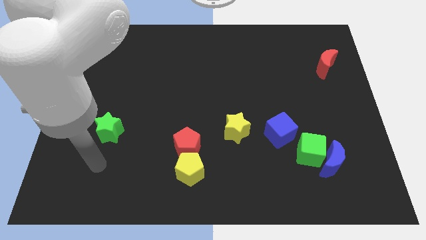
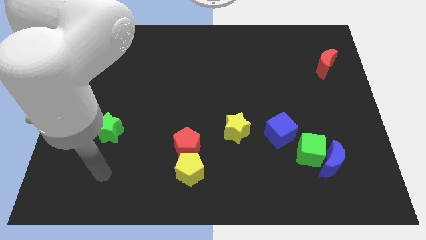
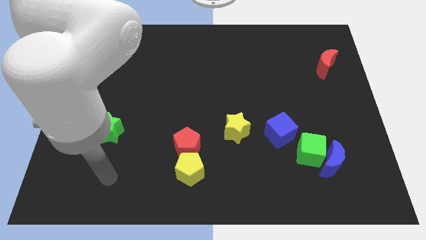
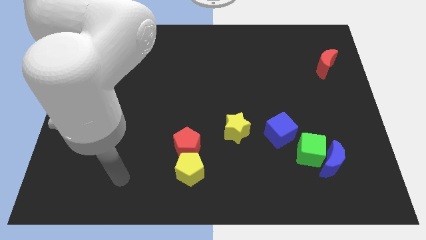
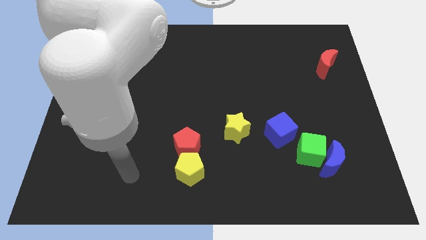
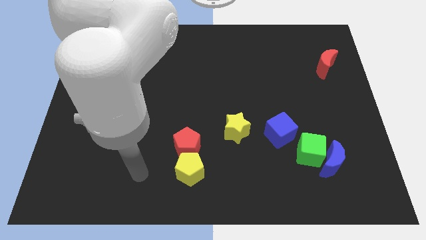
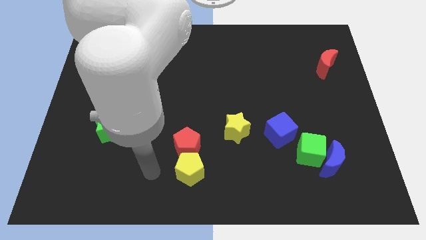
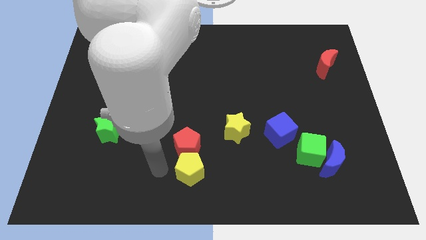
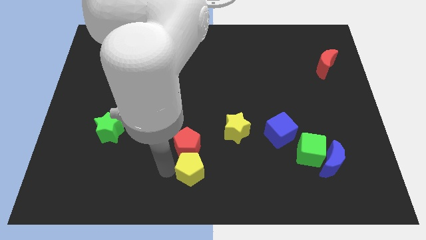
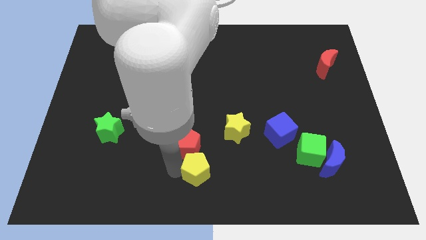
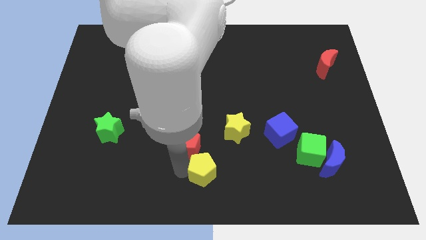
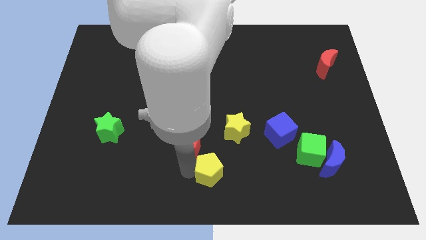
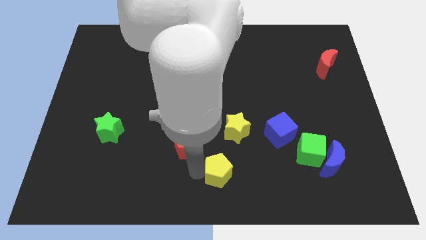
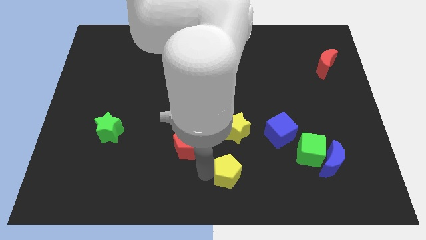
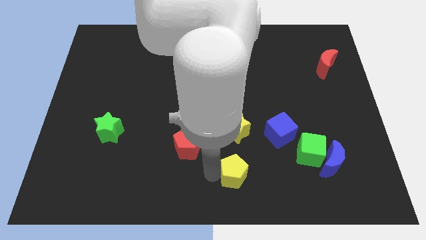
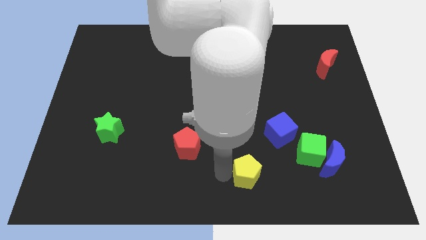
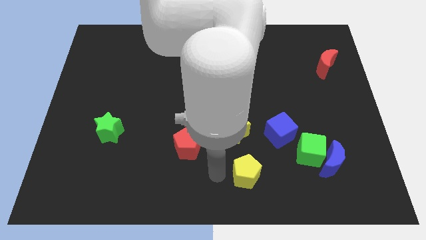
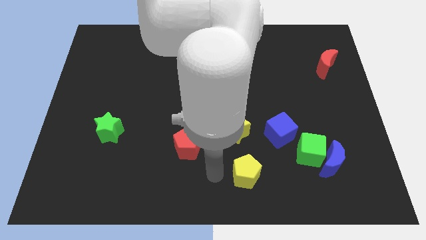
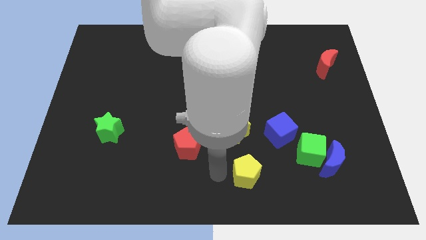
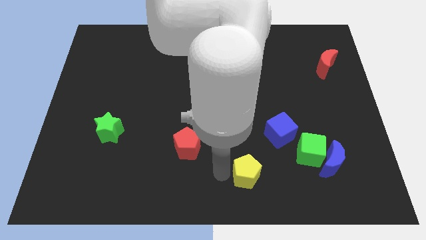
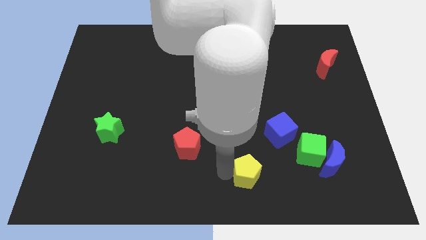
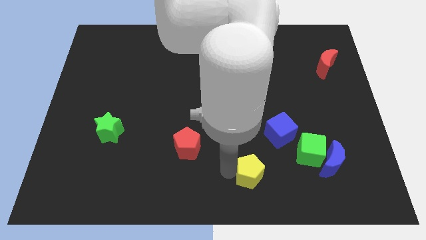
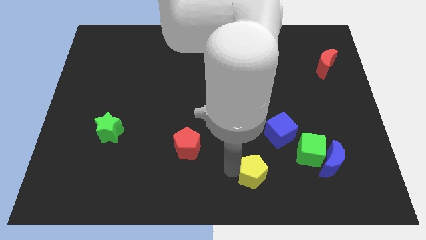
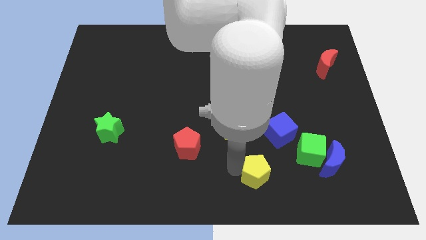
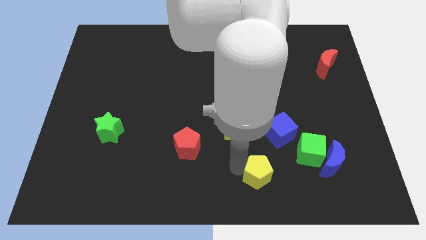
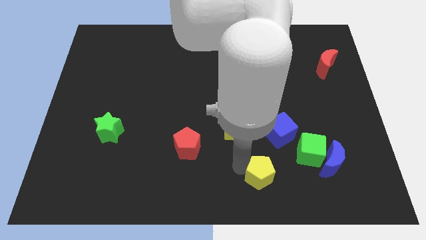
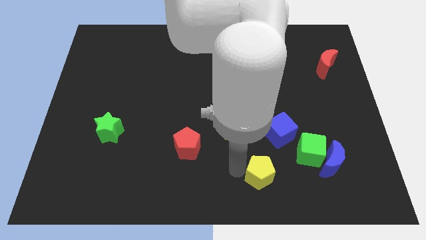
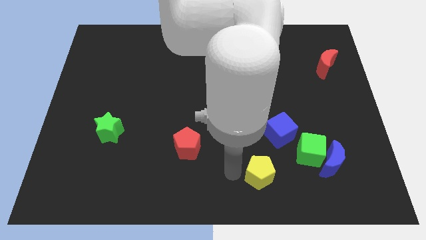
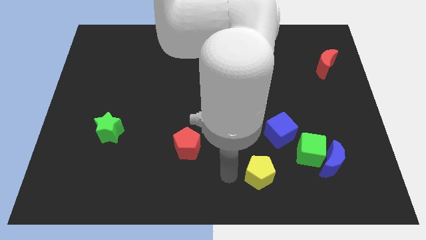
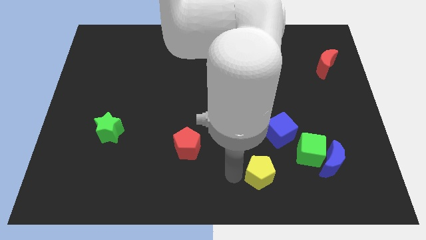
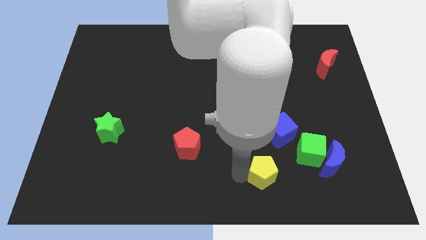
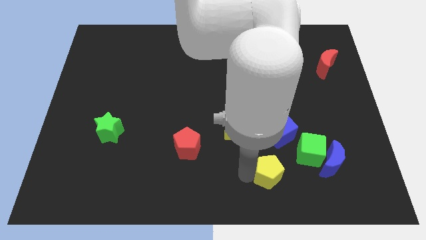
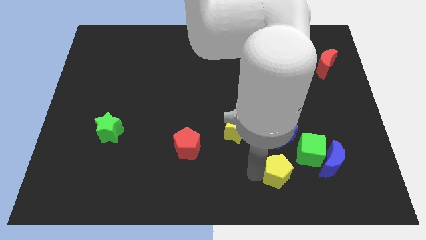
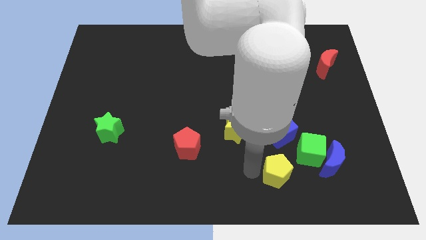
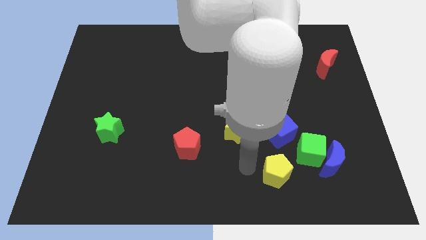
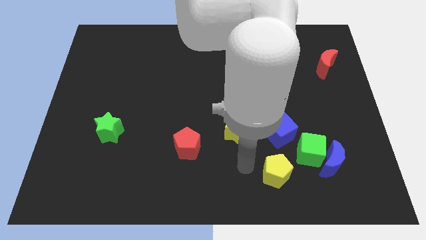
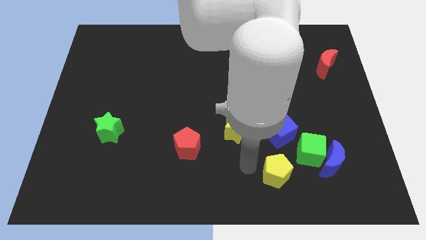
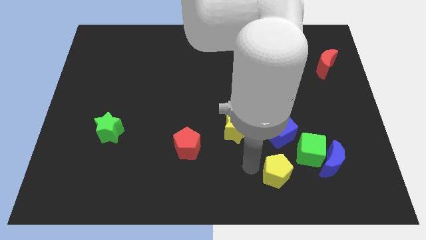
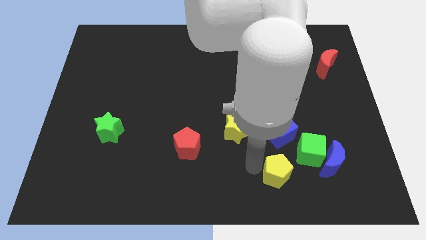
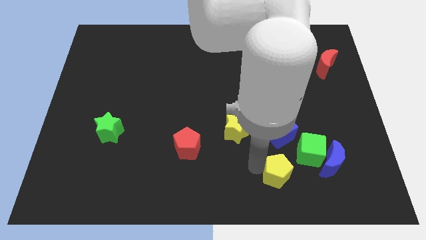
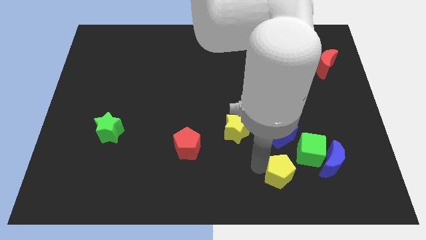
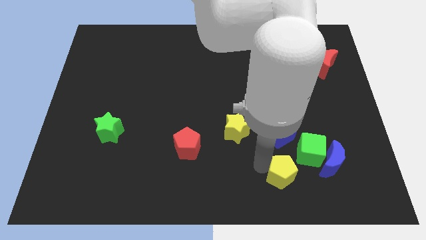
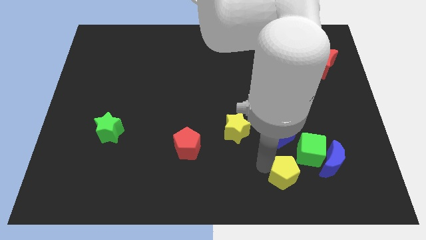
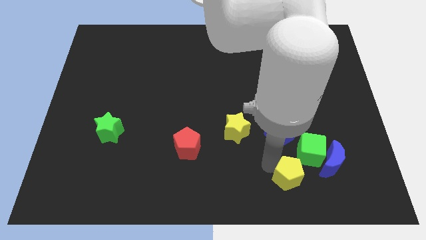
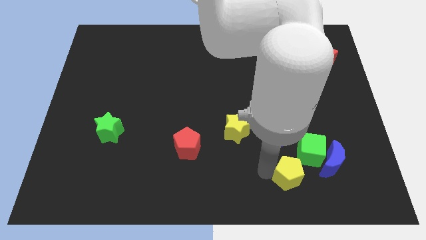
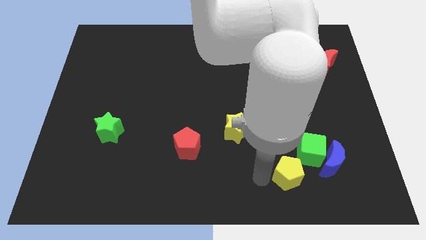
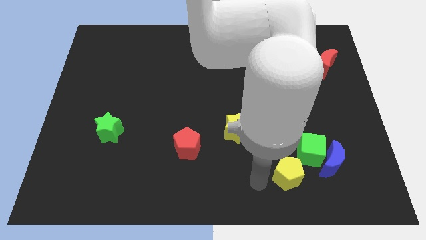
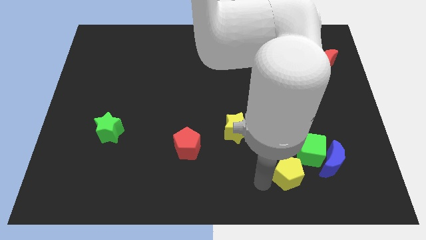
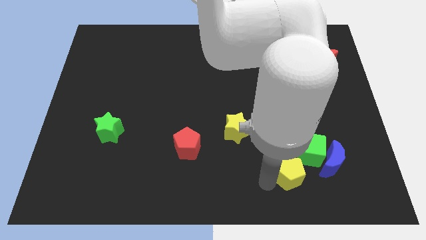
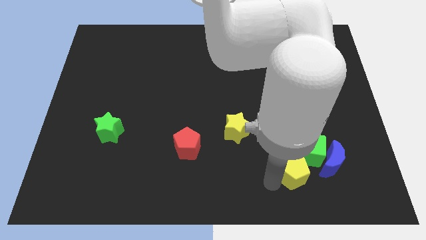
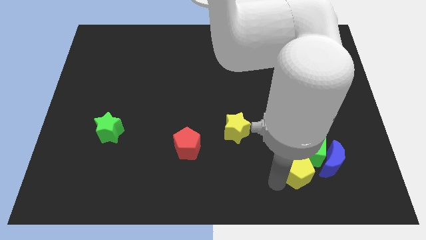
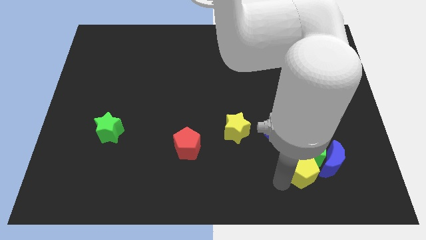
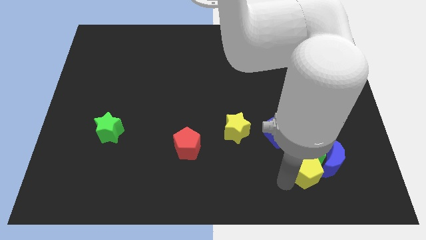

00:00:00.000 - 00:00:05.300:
put the yellow pentagon towards the blue moon

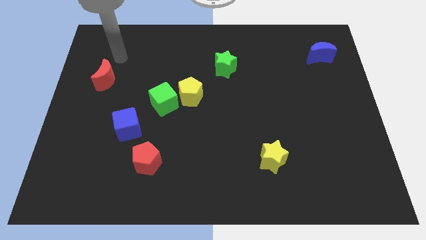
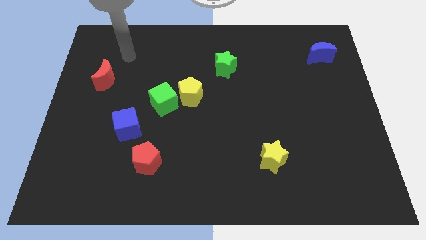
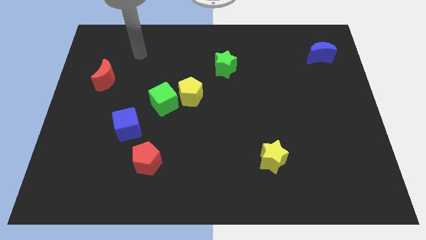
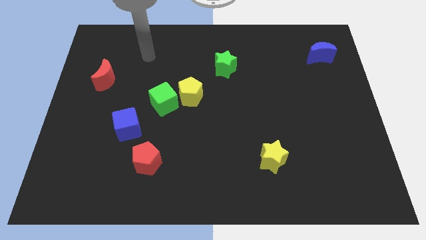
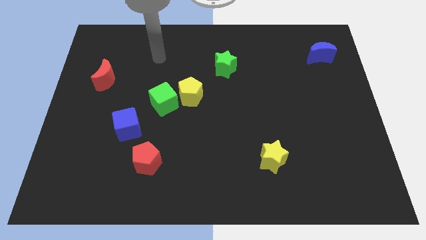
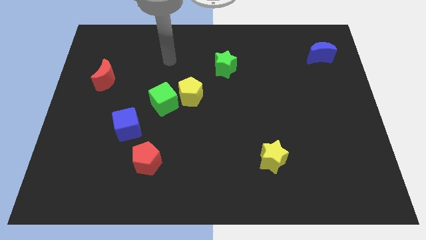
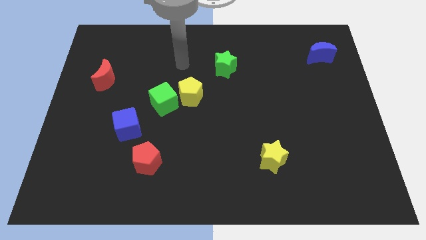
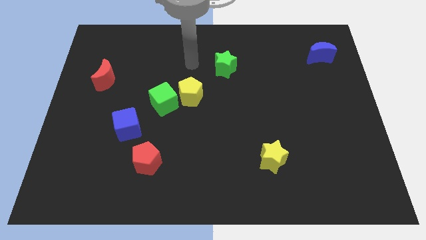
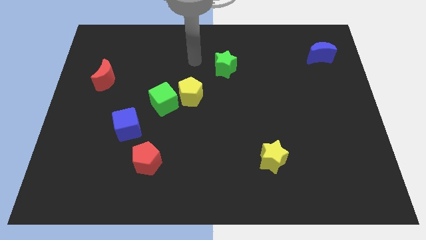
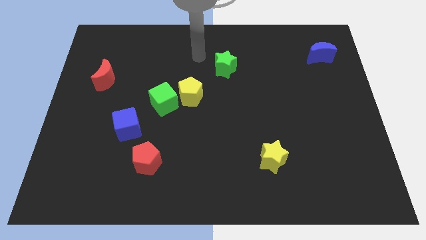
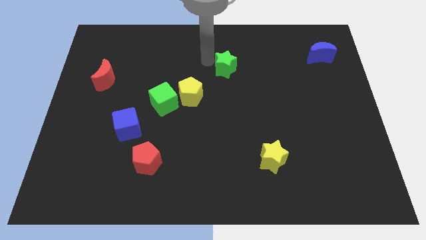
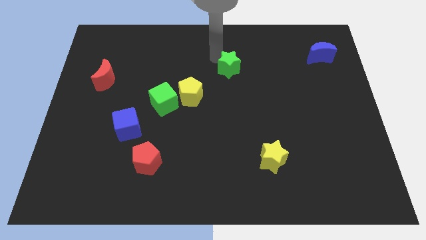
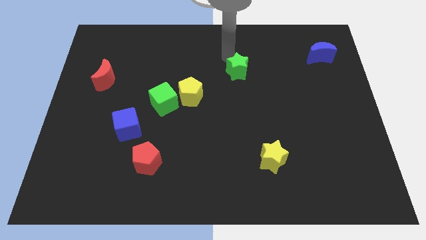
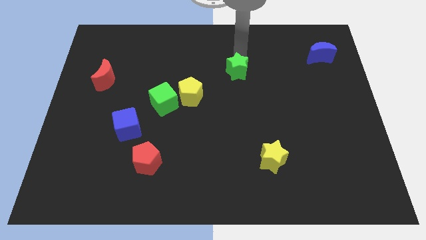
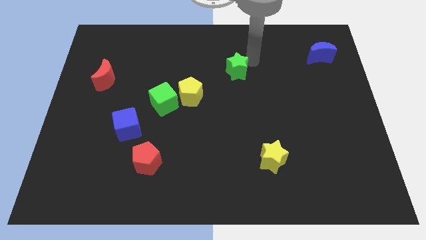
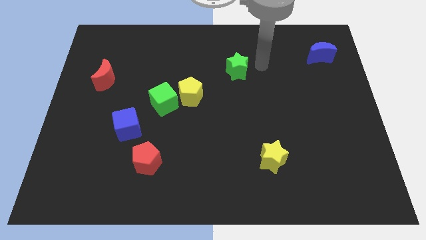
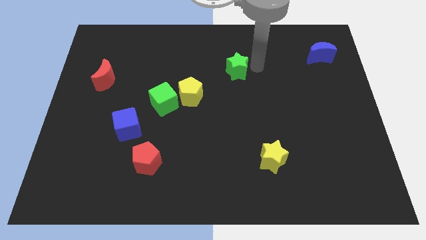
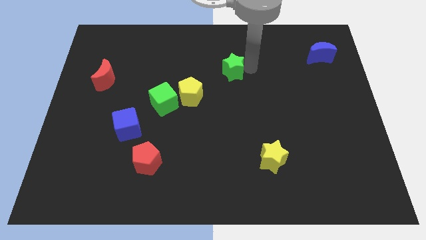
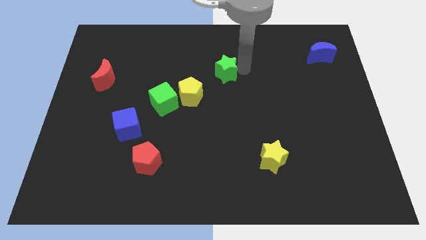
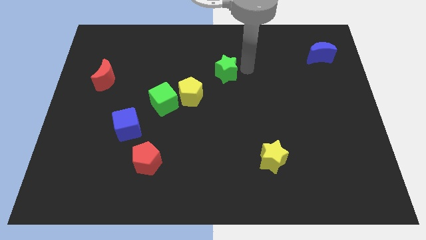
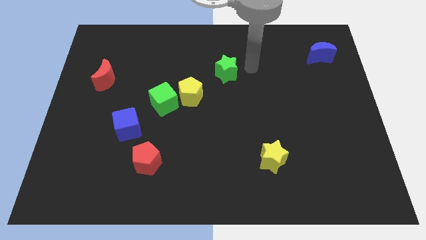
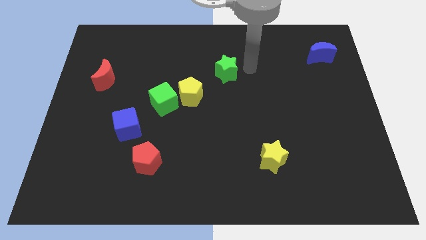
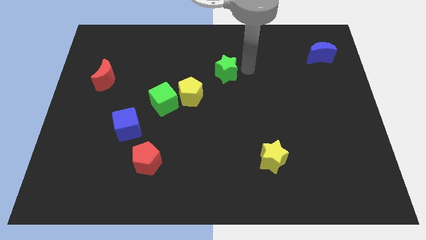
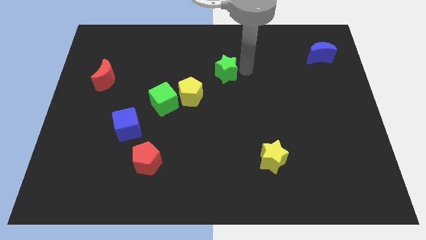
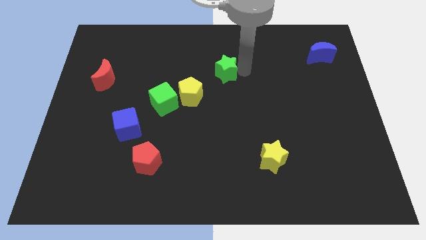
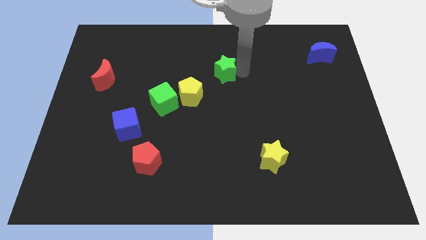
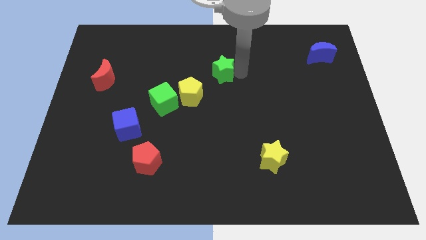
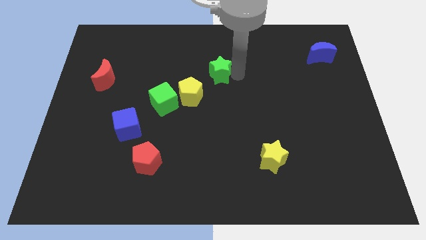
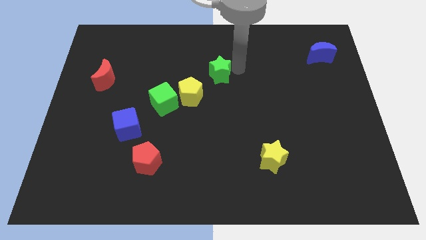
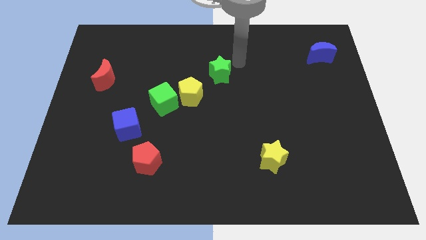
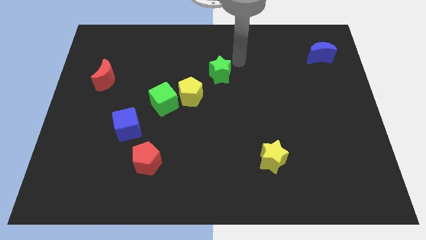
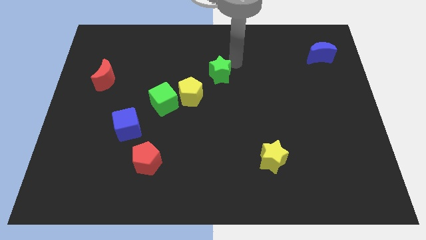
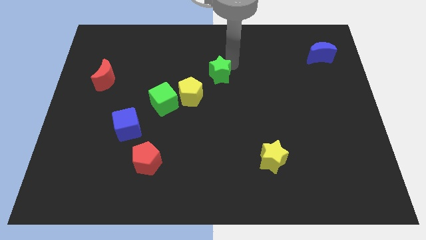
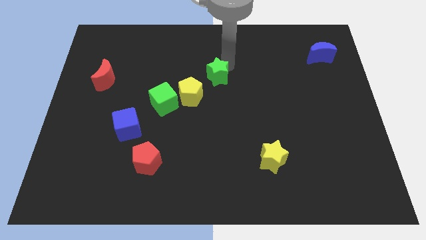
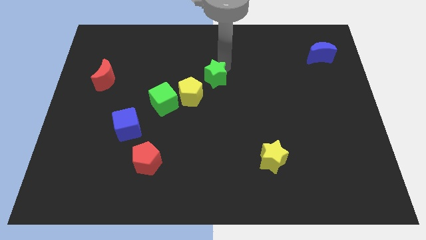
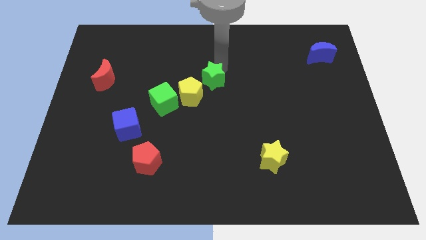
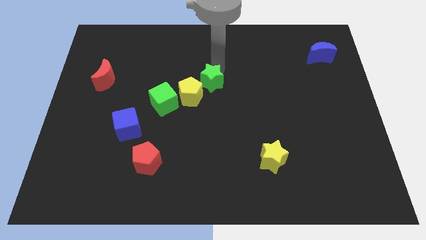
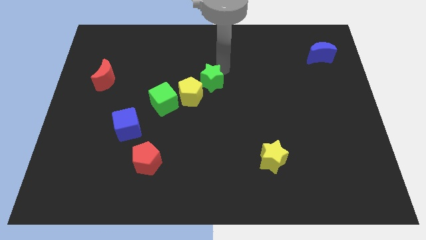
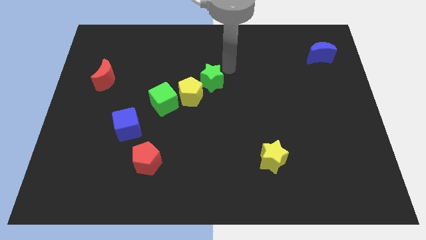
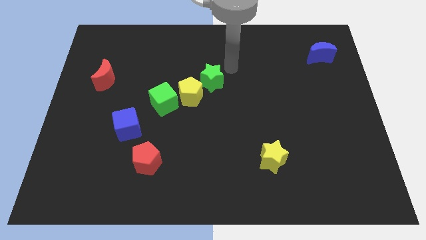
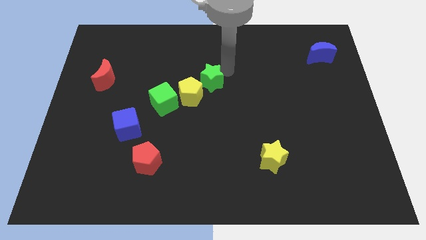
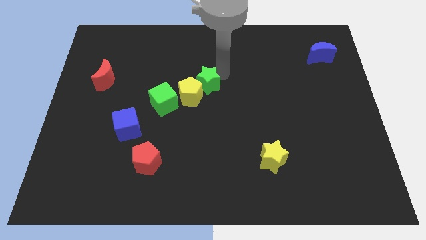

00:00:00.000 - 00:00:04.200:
move the green star next to the yellow pentagon
